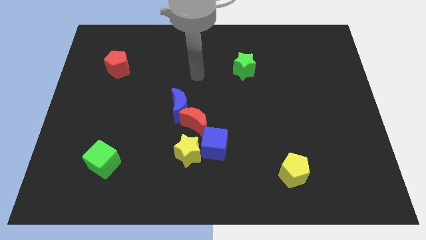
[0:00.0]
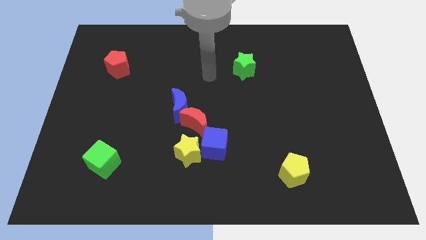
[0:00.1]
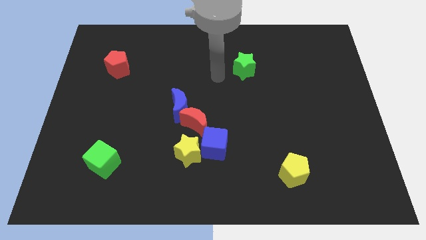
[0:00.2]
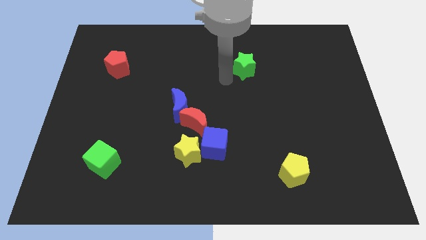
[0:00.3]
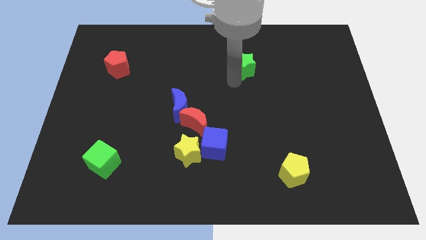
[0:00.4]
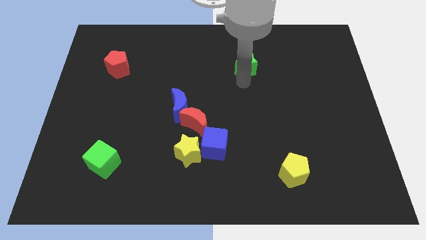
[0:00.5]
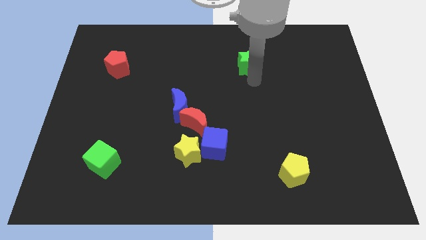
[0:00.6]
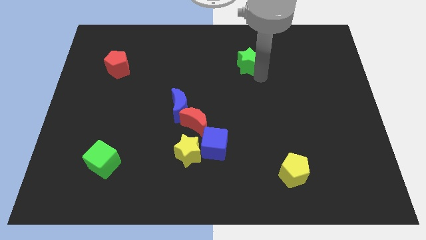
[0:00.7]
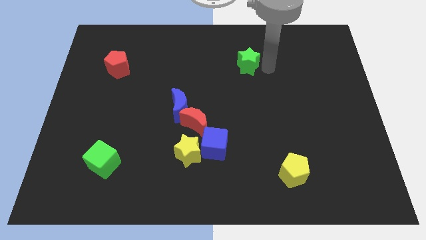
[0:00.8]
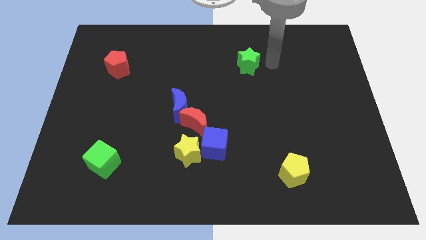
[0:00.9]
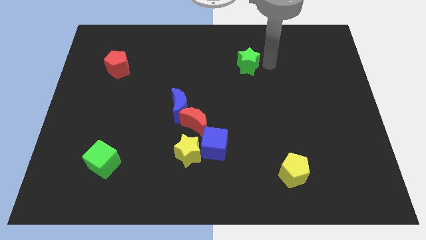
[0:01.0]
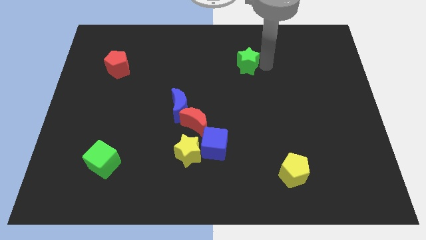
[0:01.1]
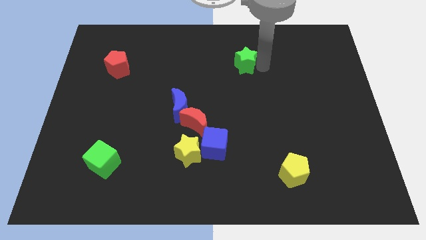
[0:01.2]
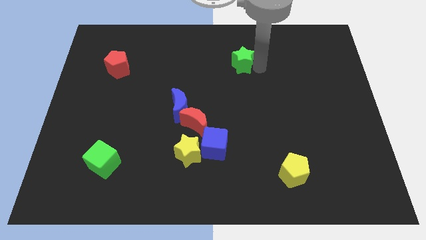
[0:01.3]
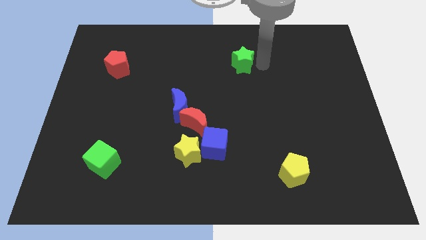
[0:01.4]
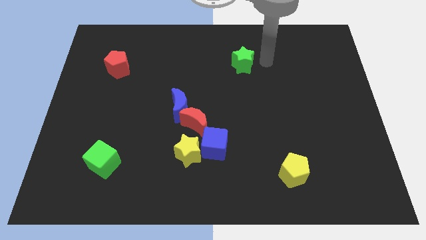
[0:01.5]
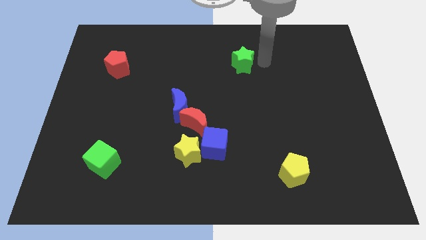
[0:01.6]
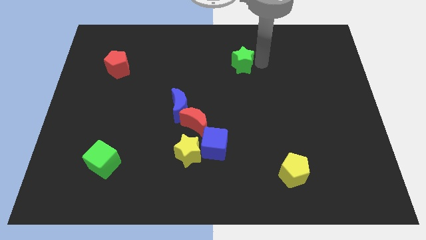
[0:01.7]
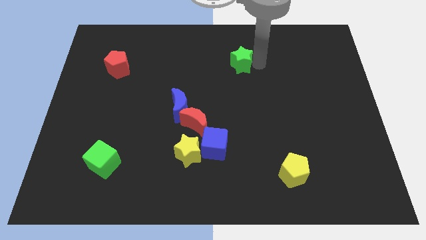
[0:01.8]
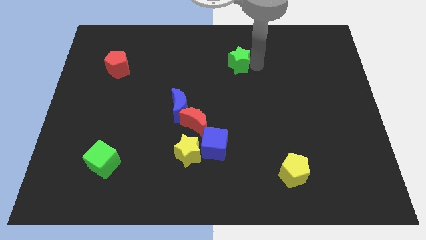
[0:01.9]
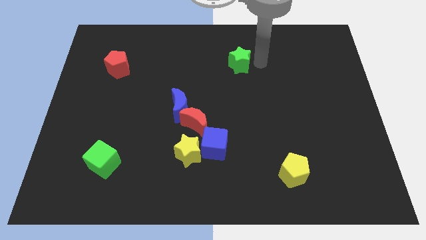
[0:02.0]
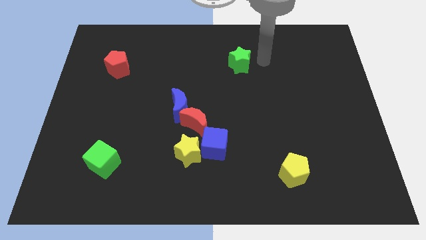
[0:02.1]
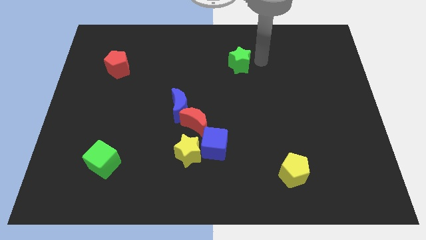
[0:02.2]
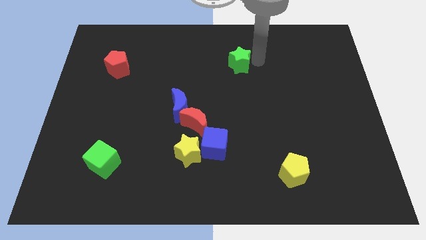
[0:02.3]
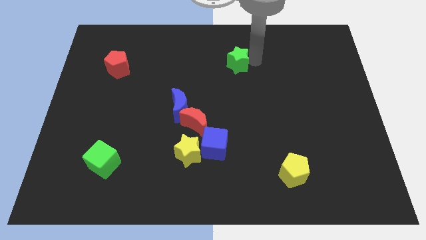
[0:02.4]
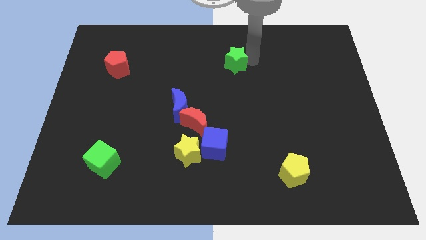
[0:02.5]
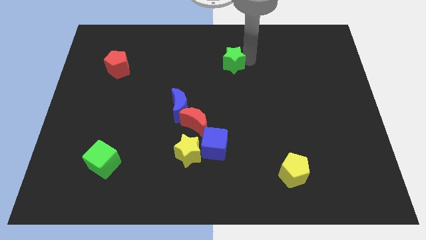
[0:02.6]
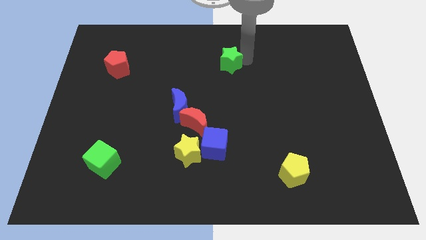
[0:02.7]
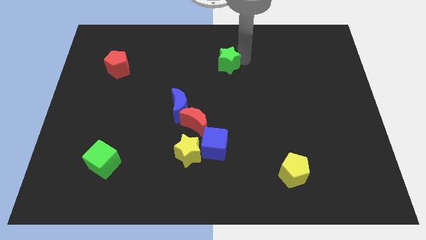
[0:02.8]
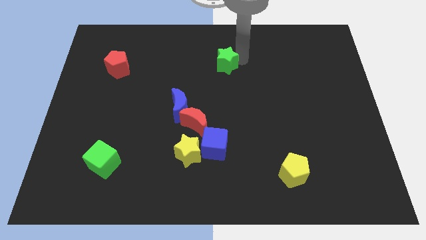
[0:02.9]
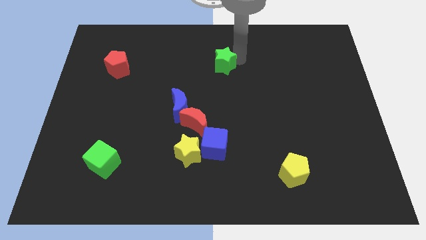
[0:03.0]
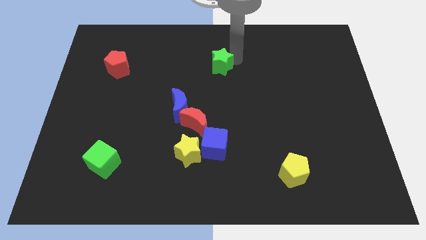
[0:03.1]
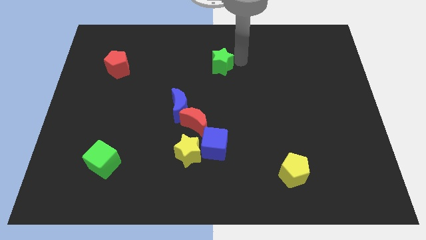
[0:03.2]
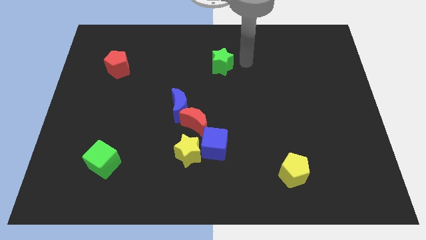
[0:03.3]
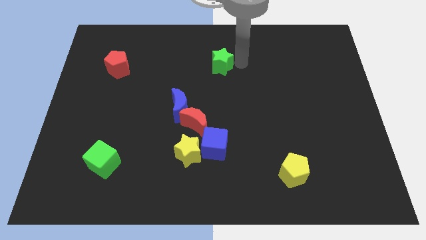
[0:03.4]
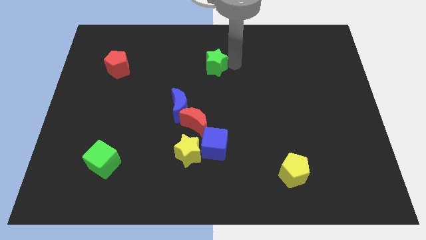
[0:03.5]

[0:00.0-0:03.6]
push the green star slightly left

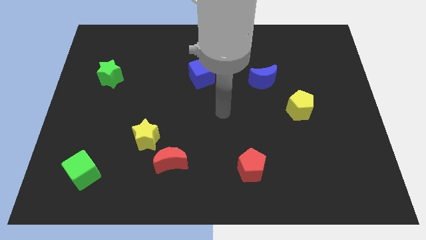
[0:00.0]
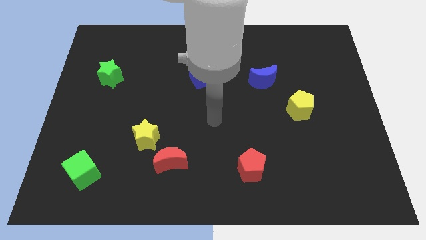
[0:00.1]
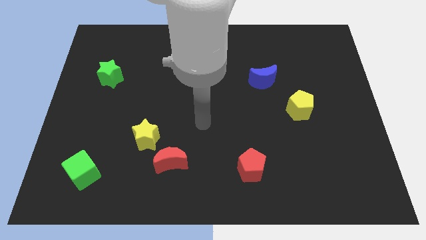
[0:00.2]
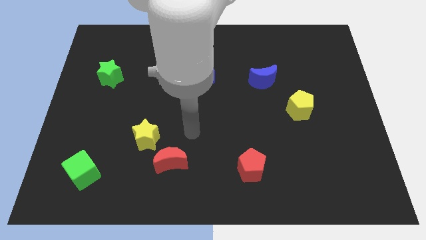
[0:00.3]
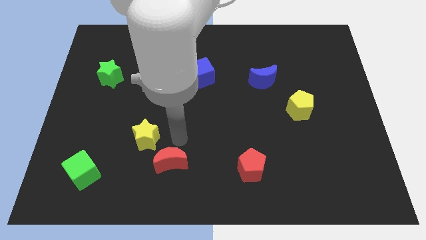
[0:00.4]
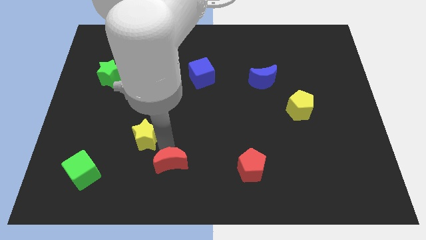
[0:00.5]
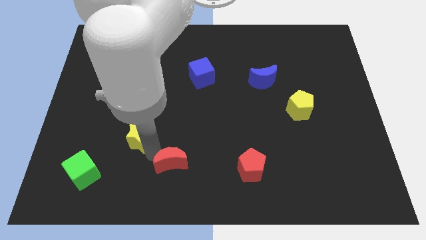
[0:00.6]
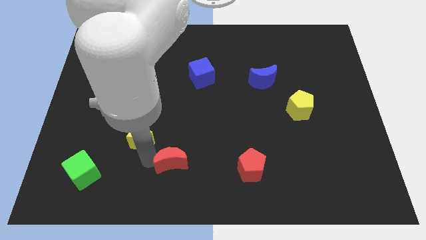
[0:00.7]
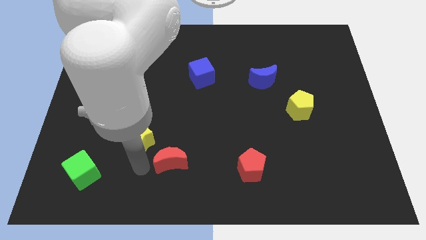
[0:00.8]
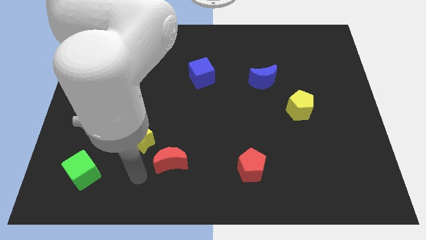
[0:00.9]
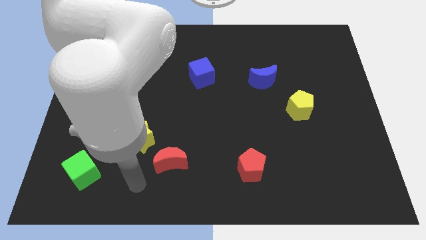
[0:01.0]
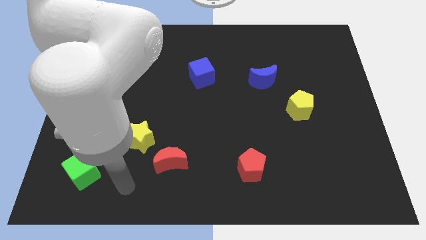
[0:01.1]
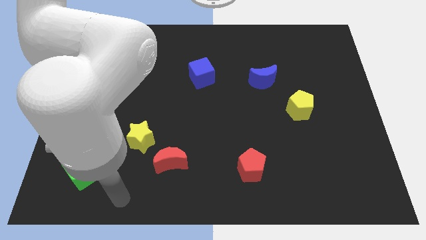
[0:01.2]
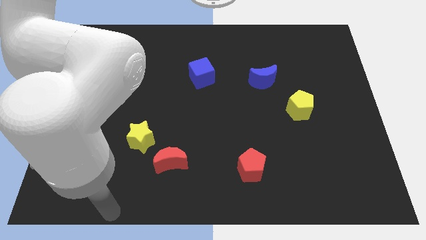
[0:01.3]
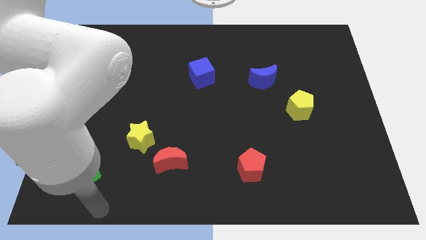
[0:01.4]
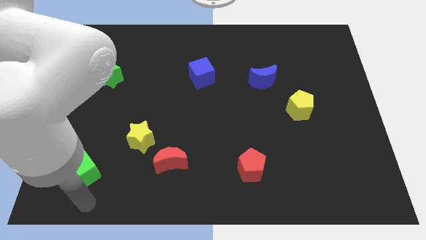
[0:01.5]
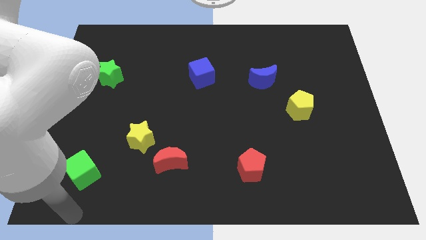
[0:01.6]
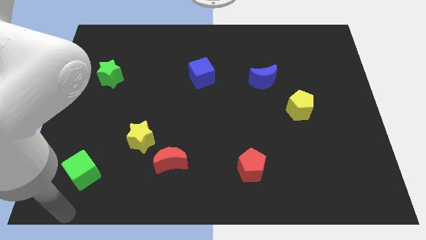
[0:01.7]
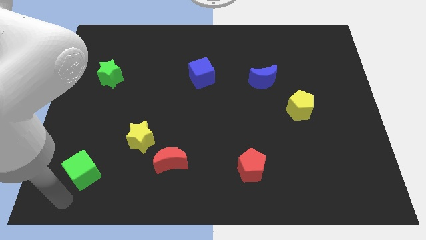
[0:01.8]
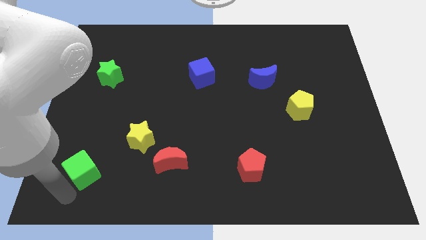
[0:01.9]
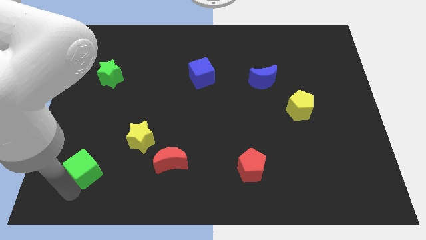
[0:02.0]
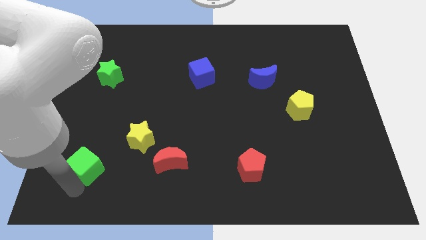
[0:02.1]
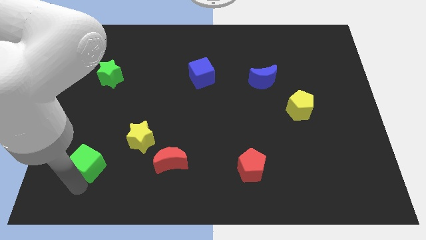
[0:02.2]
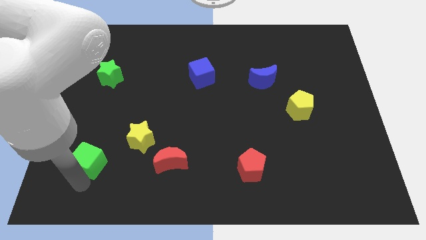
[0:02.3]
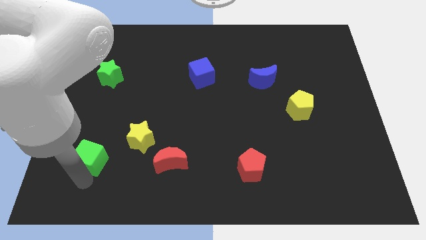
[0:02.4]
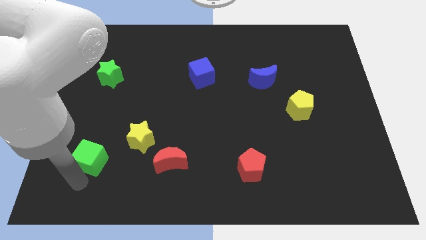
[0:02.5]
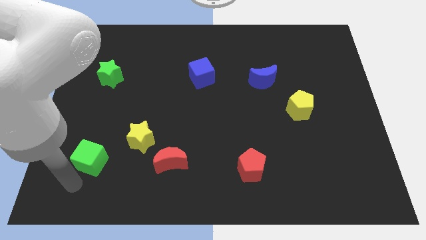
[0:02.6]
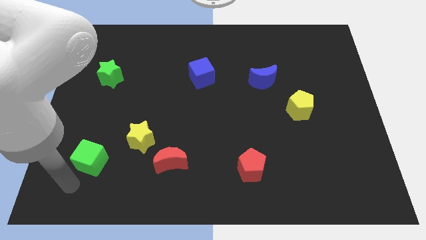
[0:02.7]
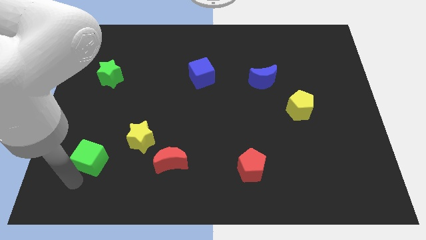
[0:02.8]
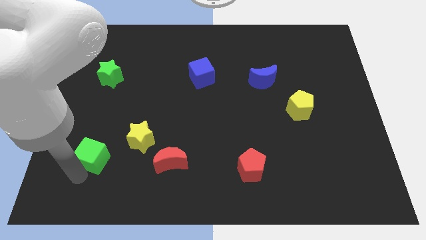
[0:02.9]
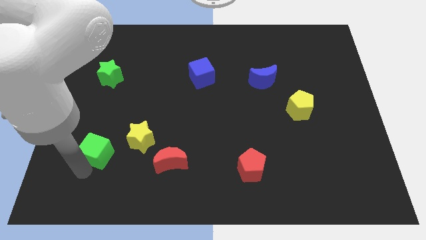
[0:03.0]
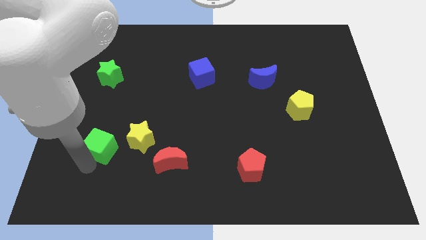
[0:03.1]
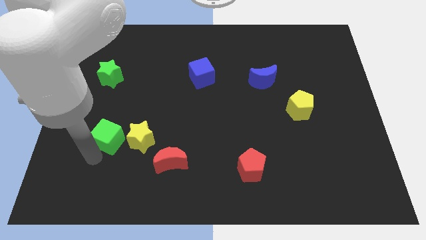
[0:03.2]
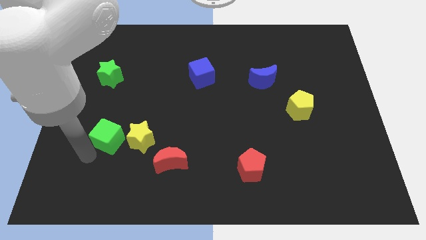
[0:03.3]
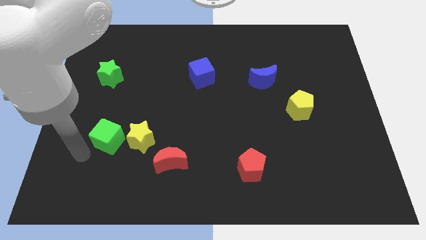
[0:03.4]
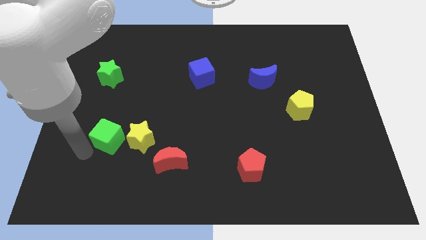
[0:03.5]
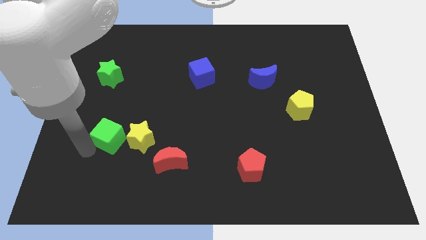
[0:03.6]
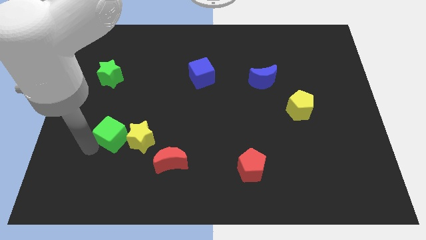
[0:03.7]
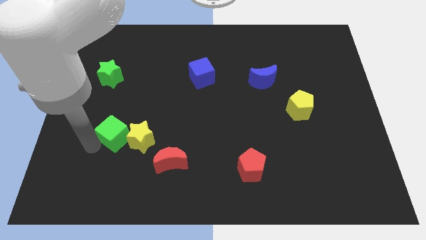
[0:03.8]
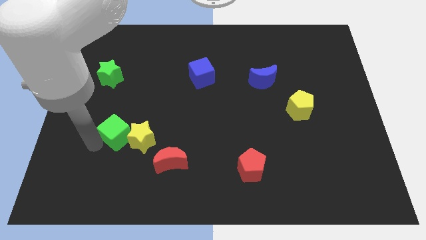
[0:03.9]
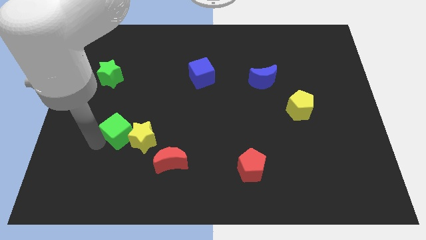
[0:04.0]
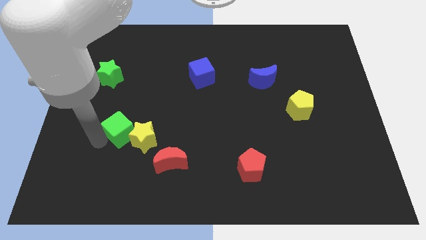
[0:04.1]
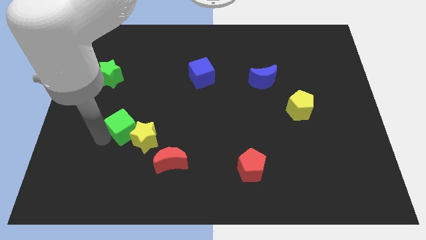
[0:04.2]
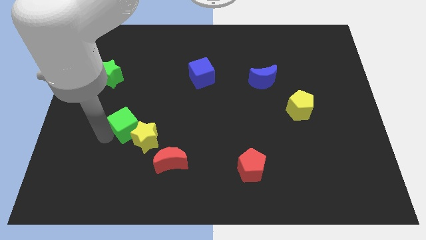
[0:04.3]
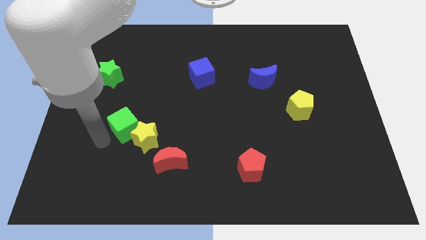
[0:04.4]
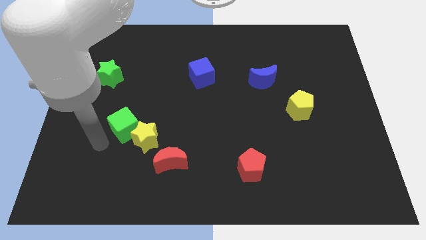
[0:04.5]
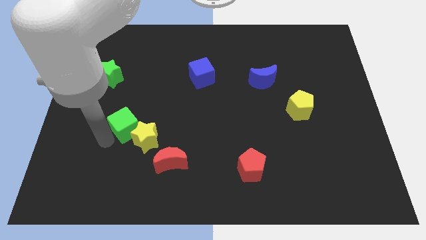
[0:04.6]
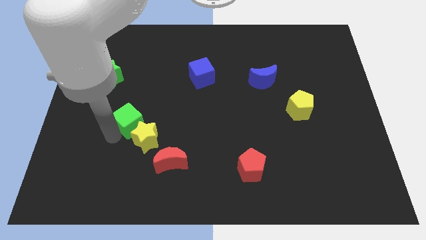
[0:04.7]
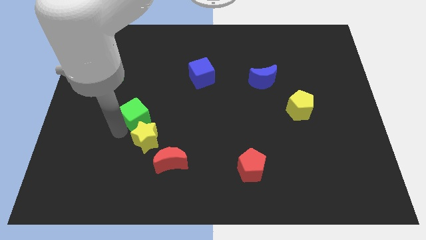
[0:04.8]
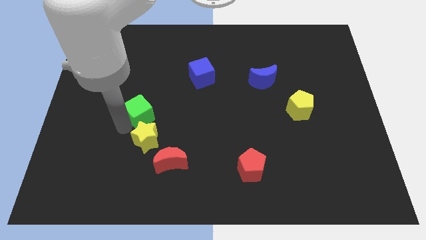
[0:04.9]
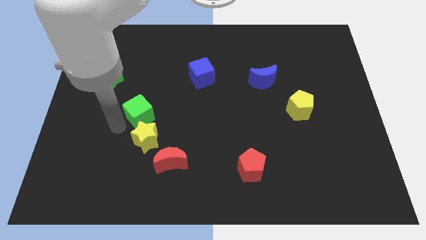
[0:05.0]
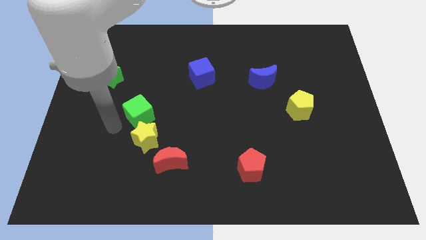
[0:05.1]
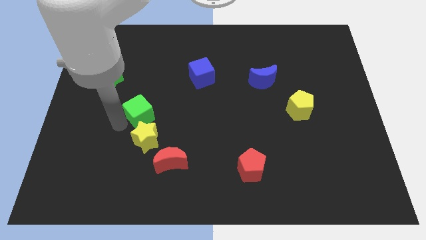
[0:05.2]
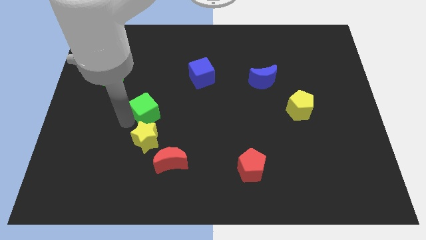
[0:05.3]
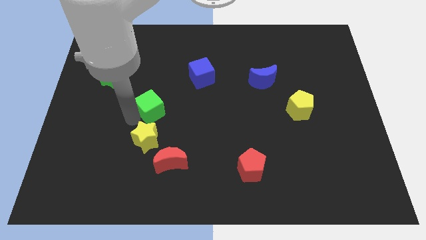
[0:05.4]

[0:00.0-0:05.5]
push the green cube up and then to the right
